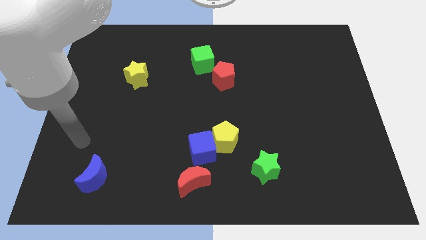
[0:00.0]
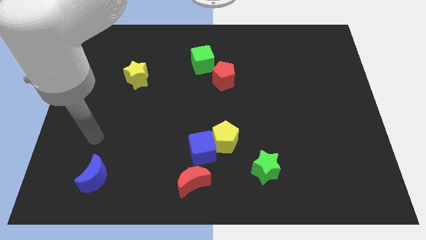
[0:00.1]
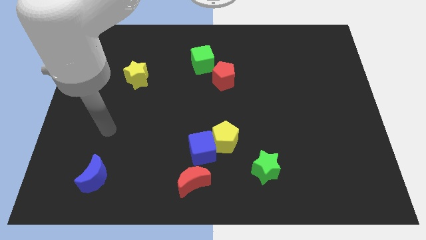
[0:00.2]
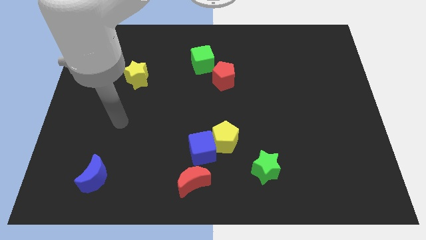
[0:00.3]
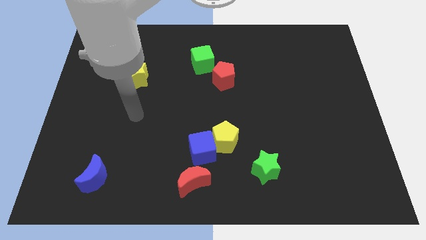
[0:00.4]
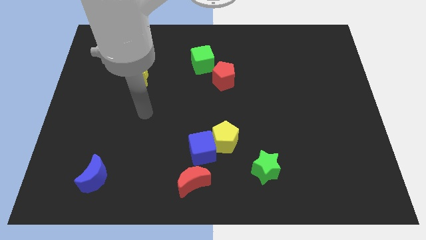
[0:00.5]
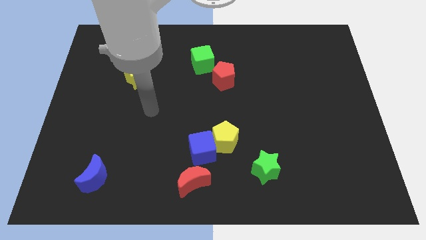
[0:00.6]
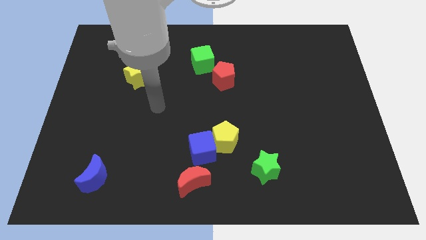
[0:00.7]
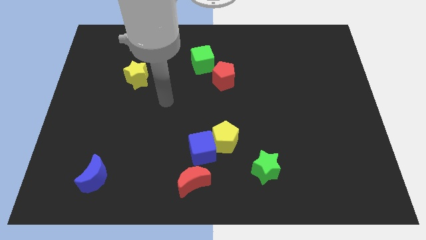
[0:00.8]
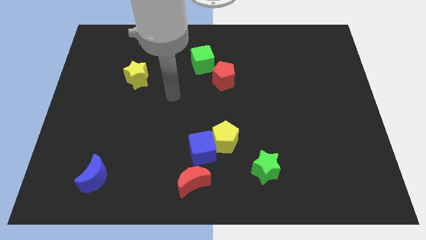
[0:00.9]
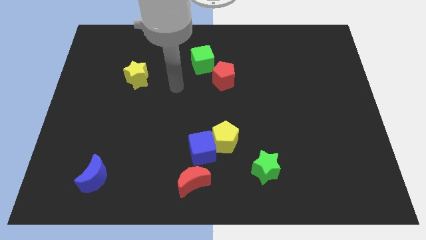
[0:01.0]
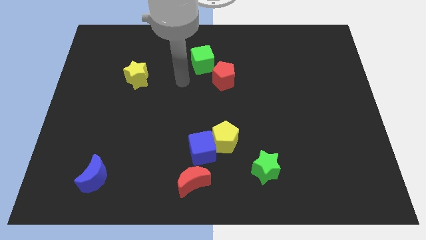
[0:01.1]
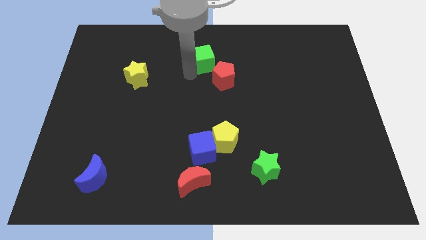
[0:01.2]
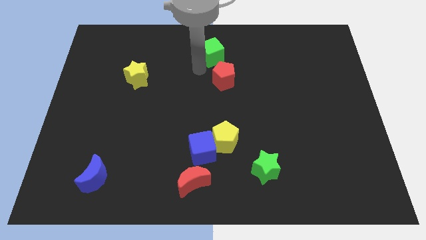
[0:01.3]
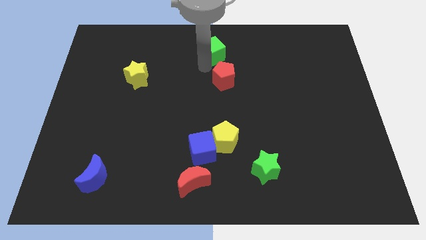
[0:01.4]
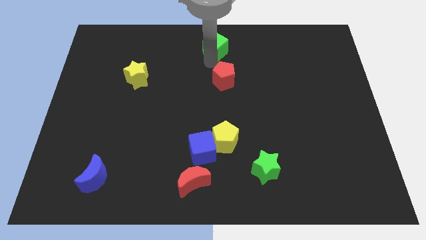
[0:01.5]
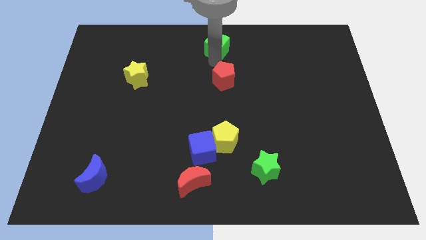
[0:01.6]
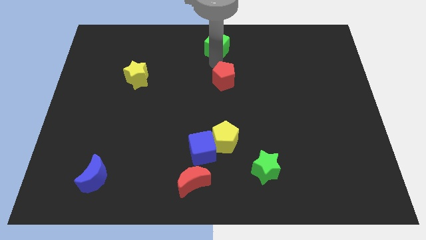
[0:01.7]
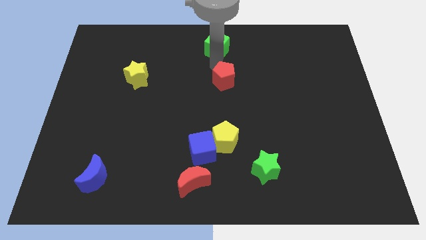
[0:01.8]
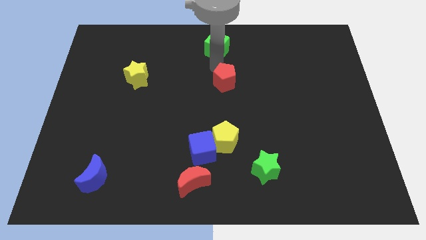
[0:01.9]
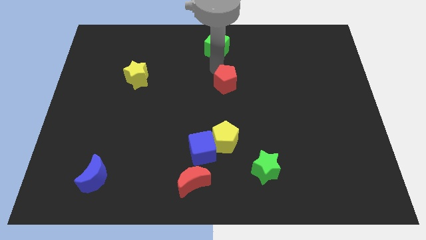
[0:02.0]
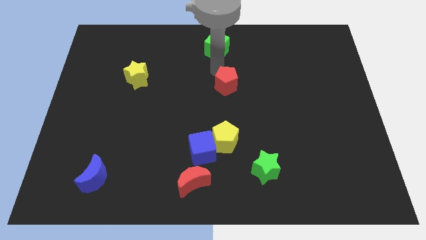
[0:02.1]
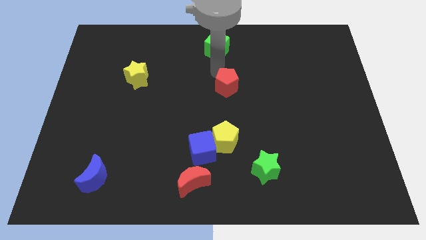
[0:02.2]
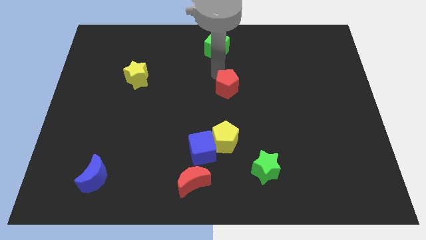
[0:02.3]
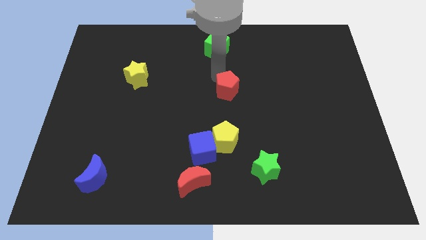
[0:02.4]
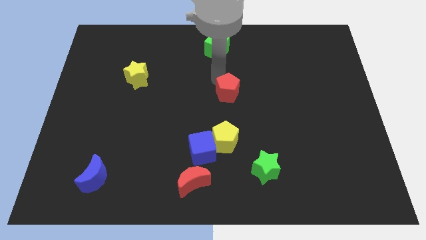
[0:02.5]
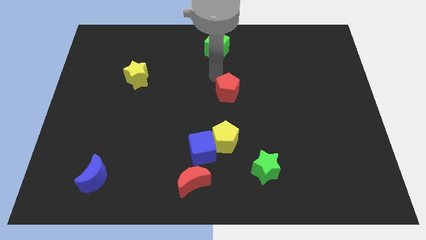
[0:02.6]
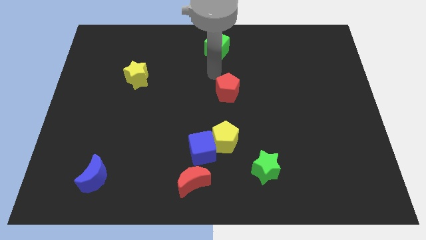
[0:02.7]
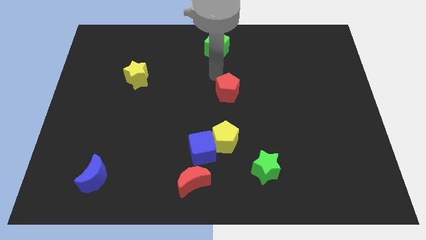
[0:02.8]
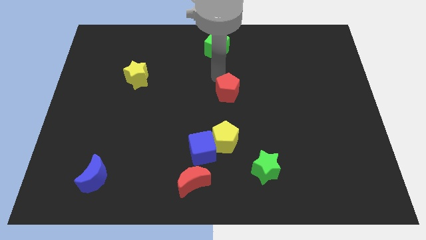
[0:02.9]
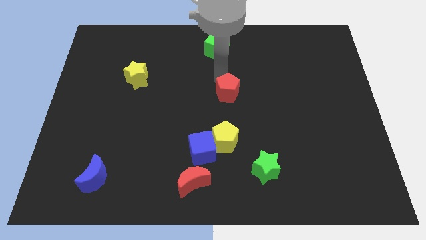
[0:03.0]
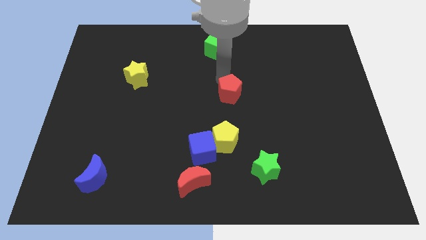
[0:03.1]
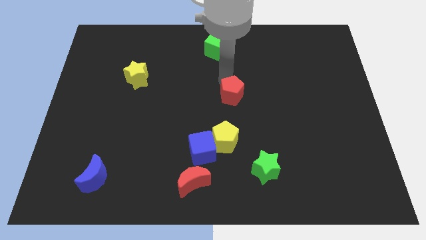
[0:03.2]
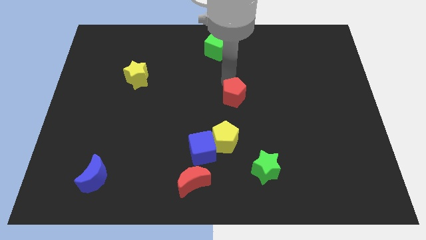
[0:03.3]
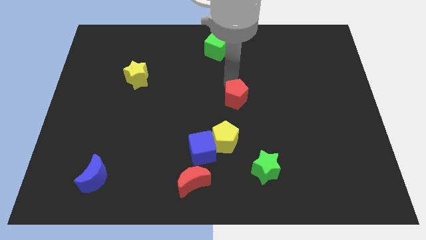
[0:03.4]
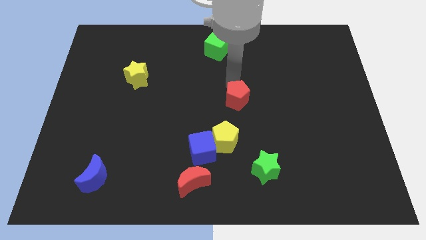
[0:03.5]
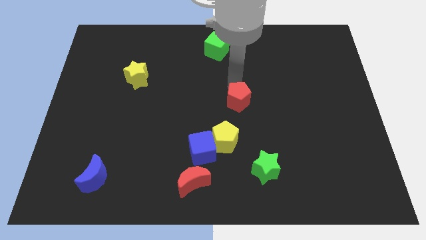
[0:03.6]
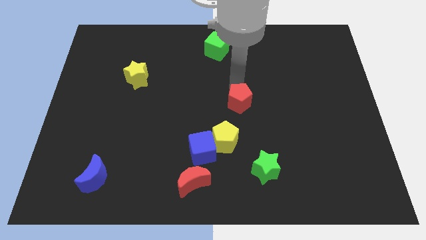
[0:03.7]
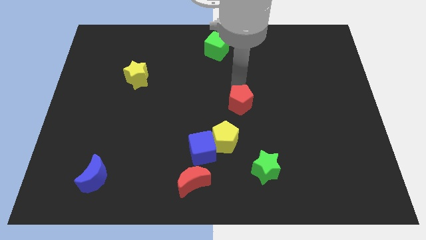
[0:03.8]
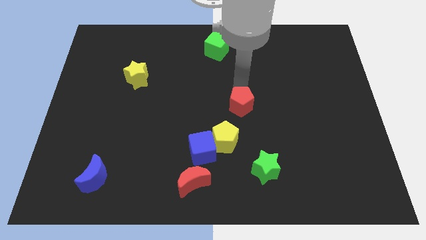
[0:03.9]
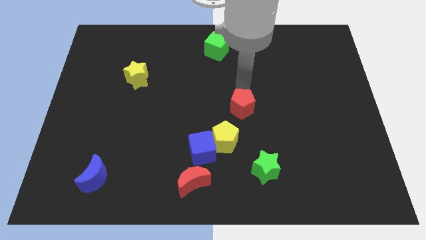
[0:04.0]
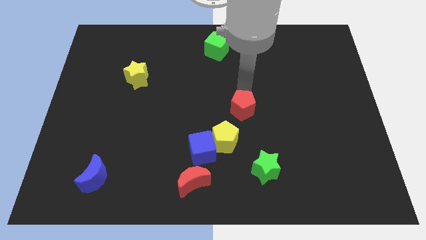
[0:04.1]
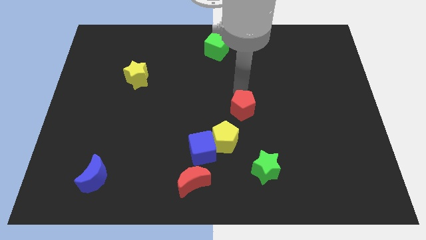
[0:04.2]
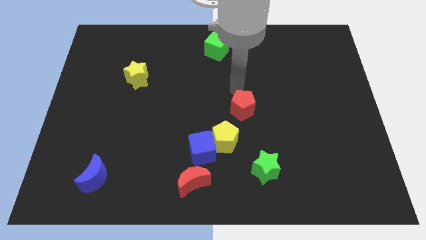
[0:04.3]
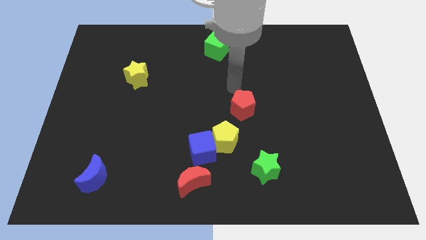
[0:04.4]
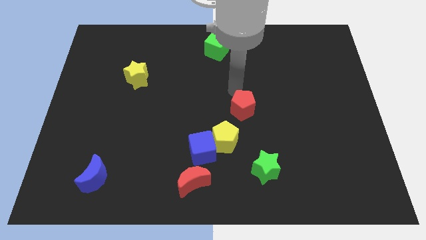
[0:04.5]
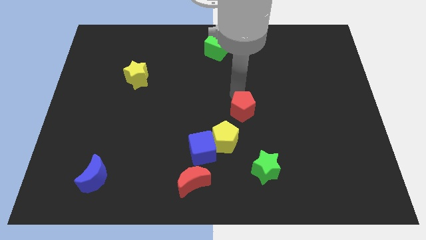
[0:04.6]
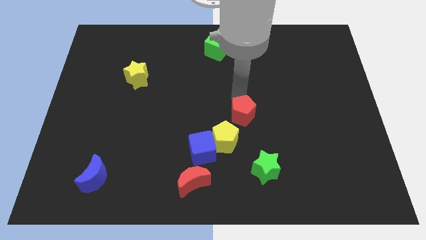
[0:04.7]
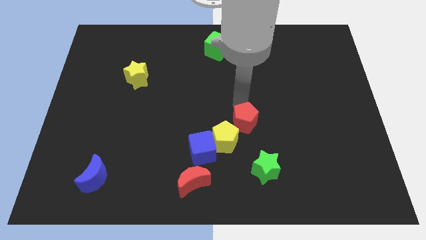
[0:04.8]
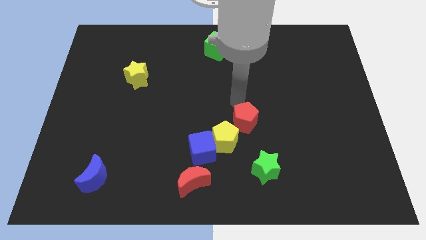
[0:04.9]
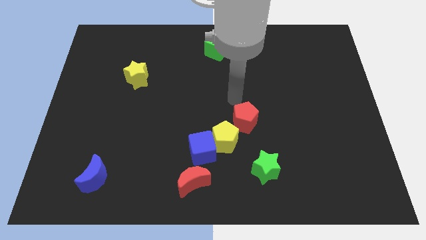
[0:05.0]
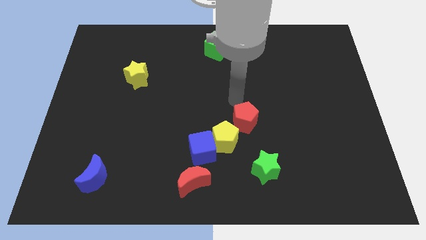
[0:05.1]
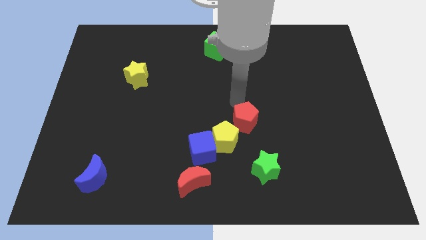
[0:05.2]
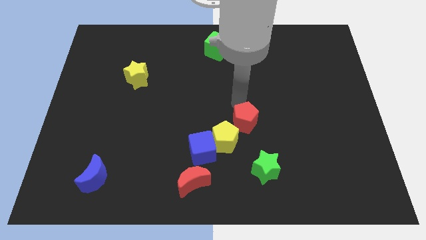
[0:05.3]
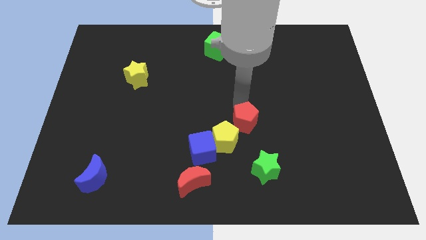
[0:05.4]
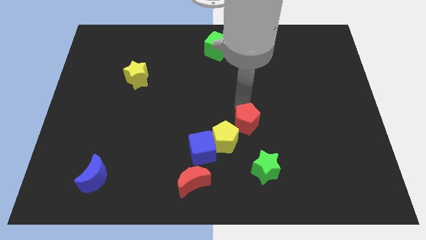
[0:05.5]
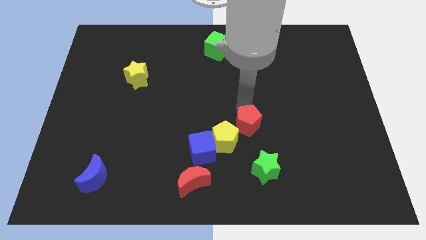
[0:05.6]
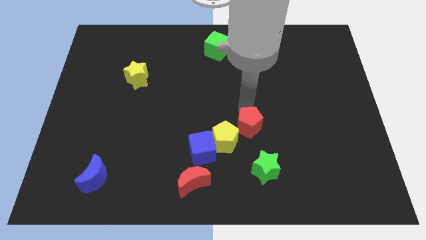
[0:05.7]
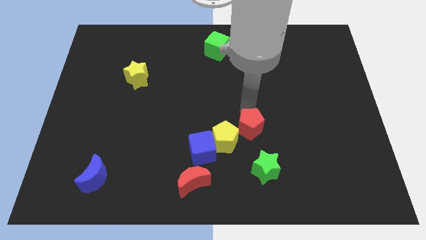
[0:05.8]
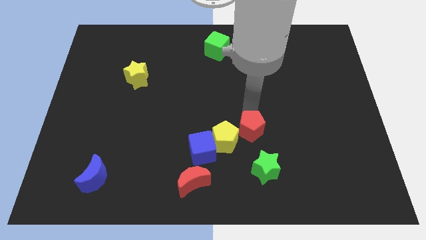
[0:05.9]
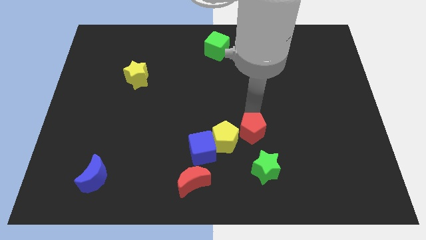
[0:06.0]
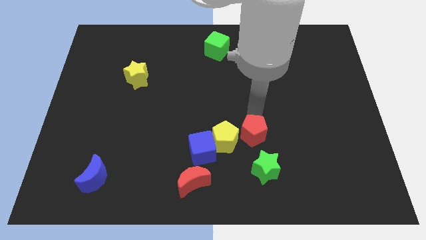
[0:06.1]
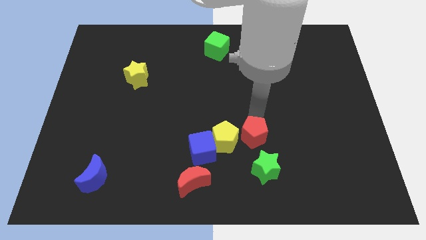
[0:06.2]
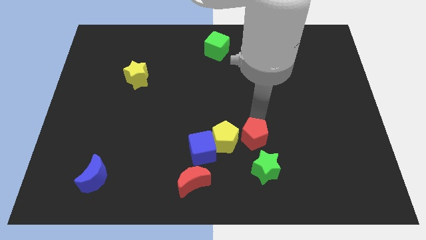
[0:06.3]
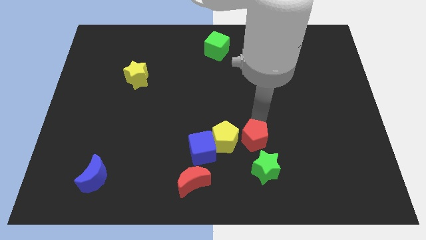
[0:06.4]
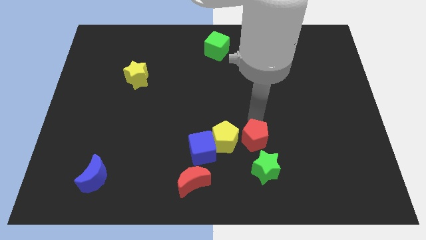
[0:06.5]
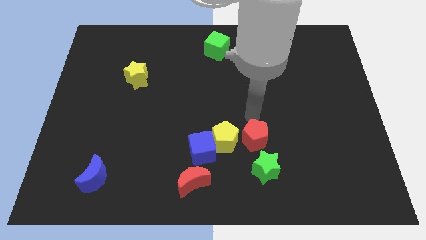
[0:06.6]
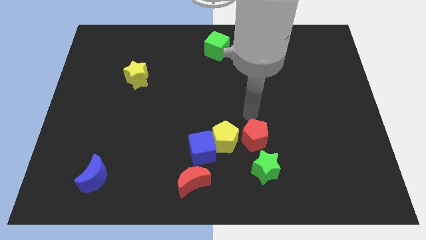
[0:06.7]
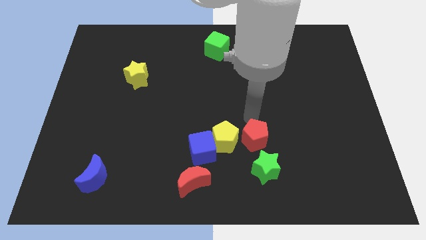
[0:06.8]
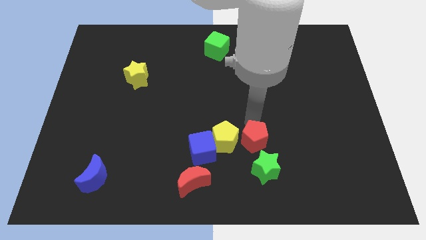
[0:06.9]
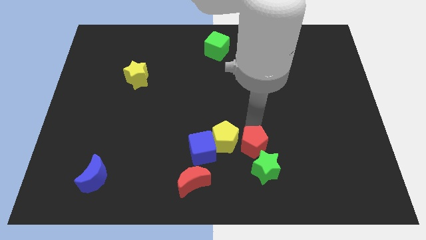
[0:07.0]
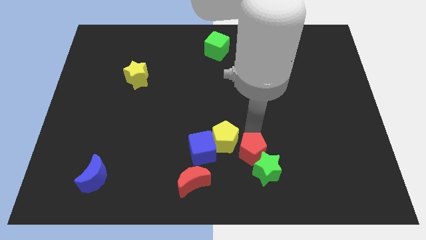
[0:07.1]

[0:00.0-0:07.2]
push the red pentagon to the green star
